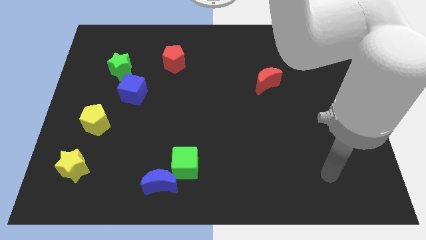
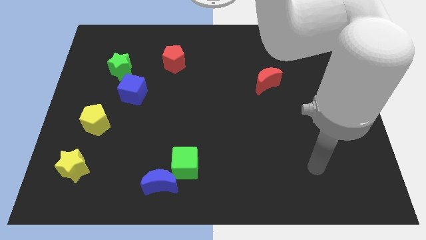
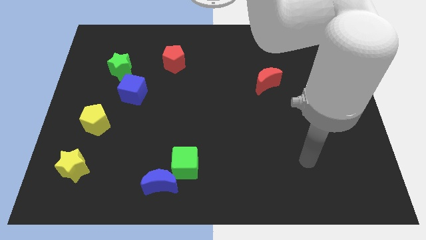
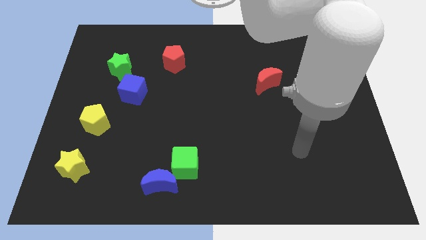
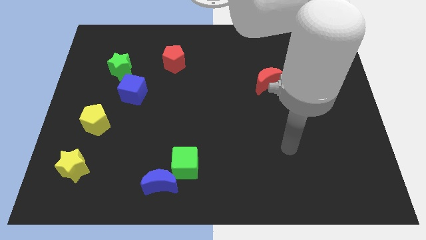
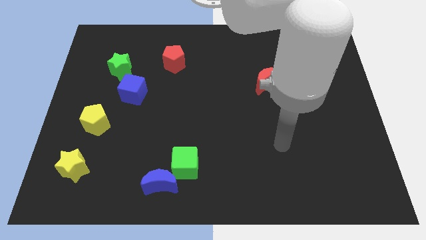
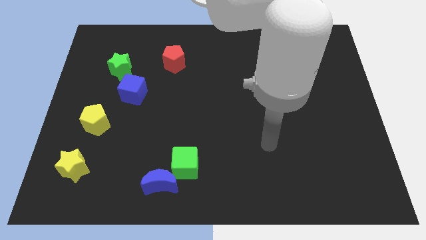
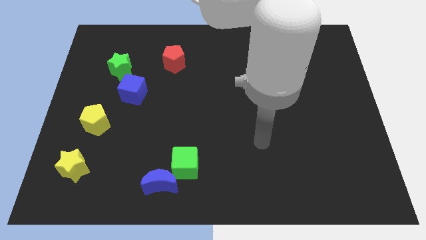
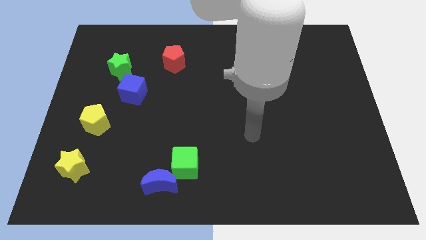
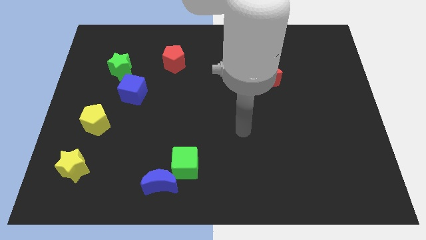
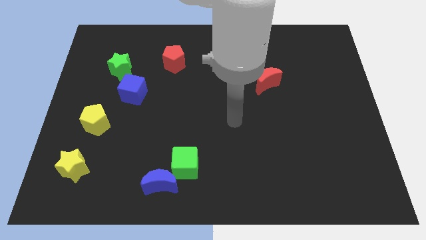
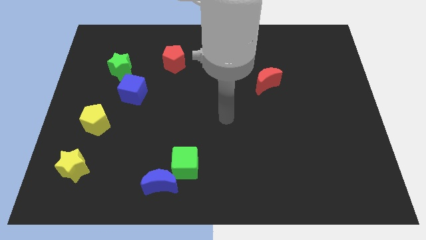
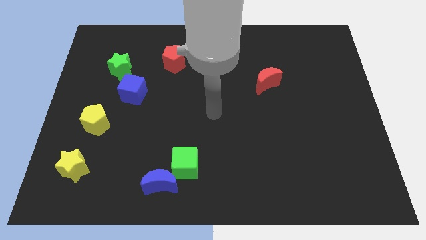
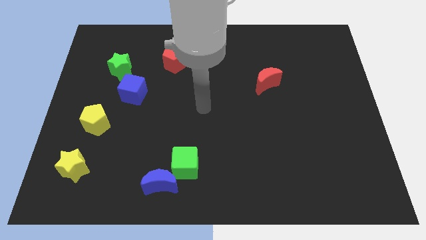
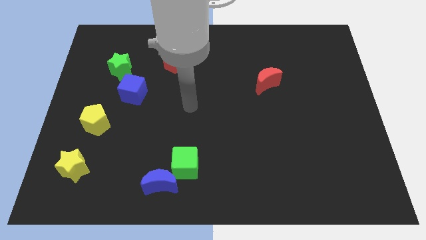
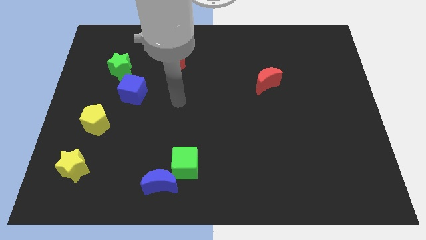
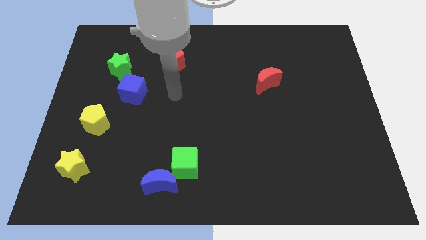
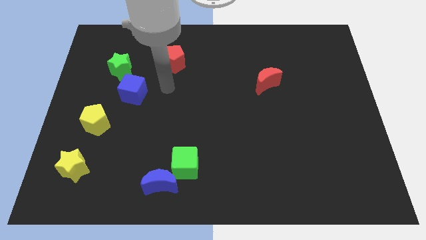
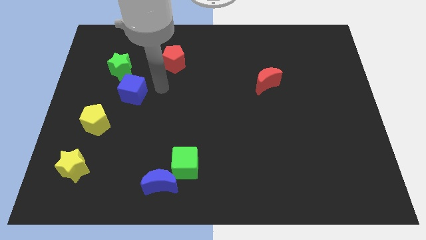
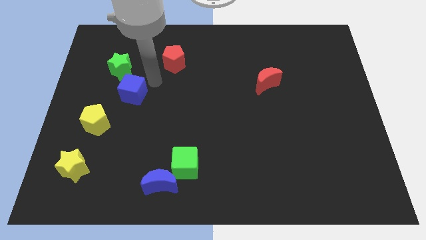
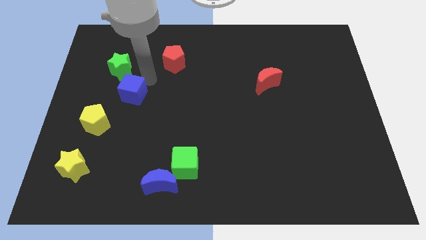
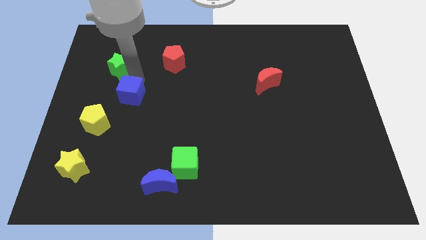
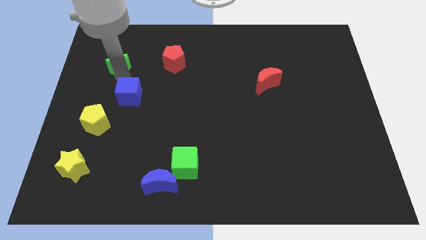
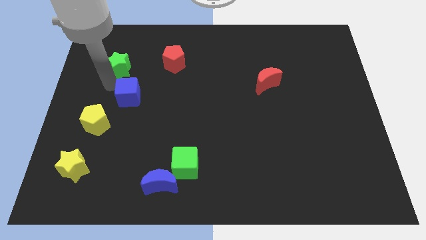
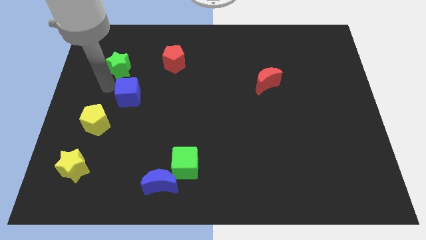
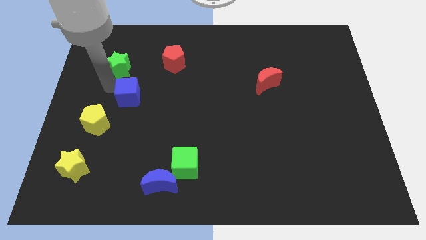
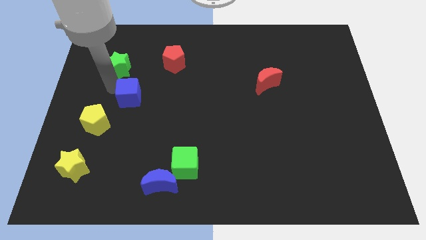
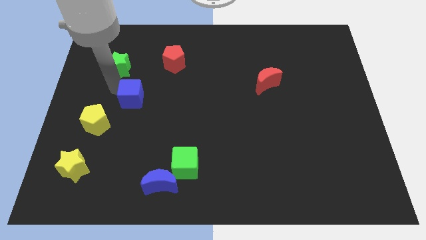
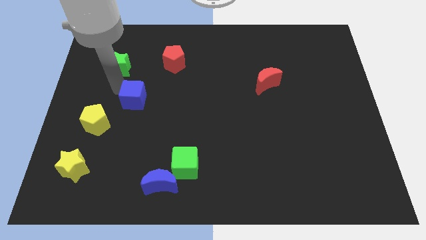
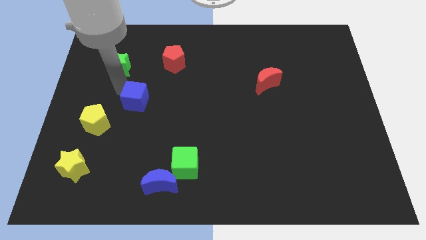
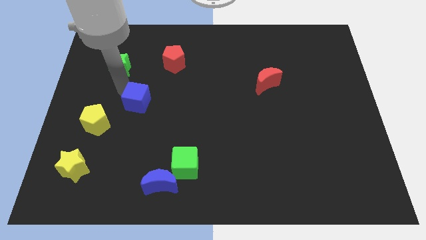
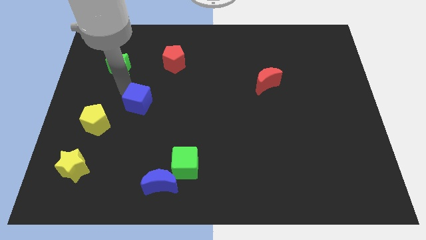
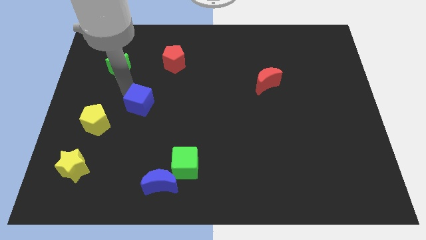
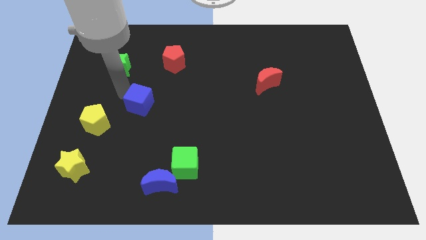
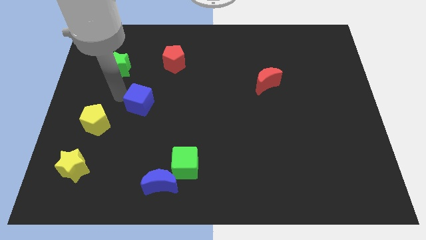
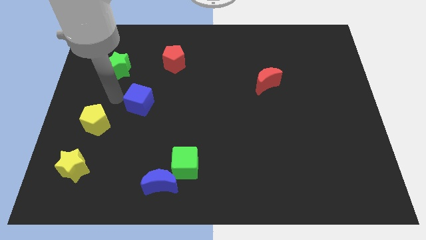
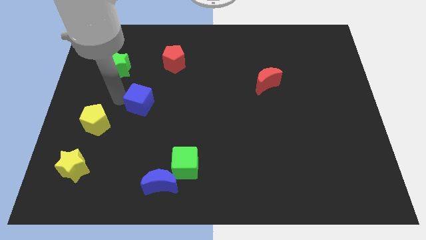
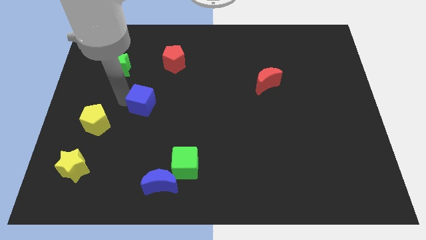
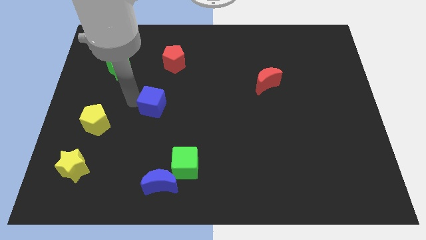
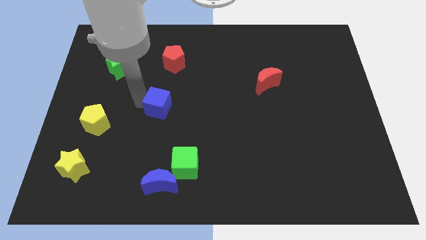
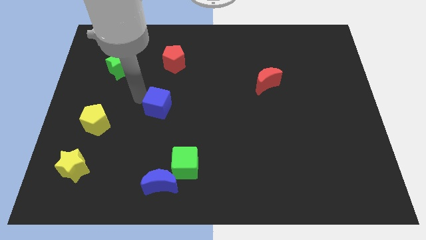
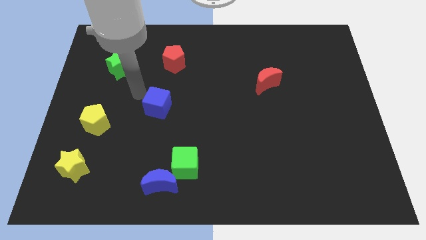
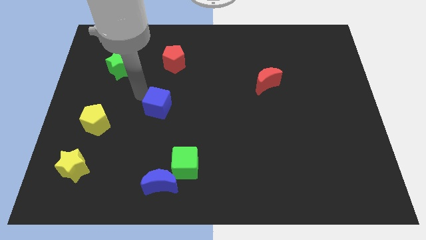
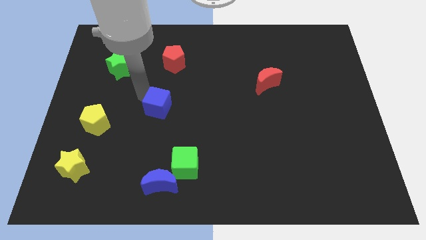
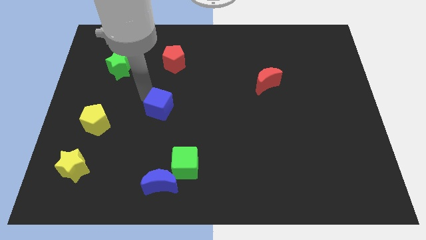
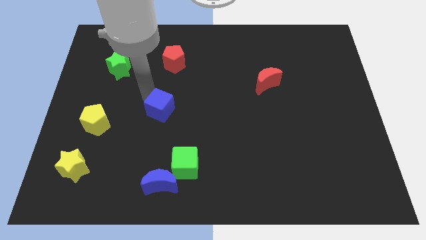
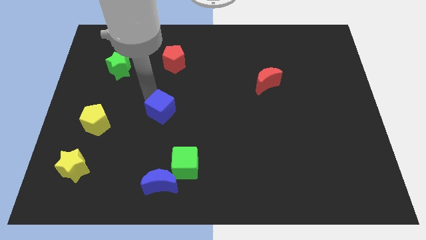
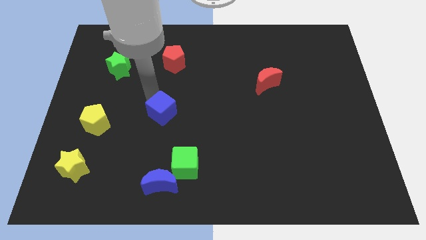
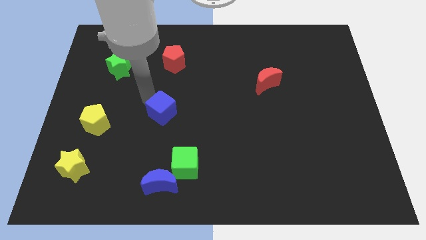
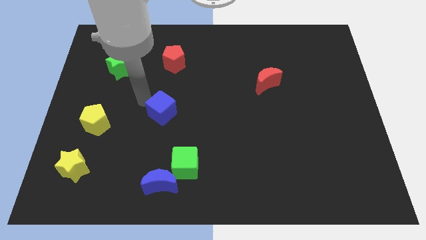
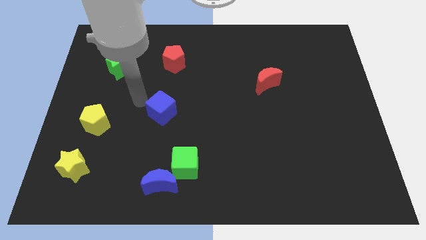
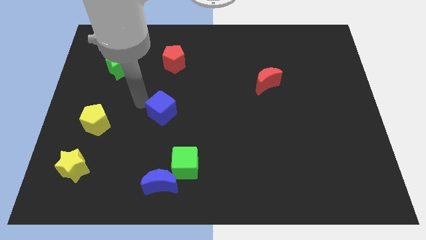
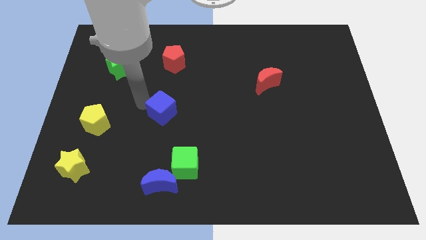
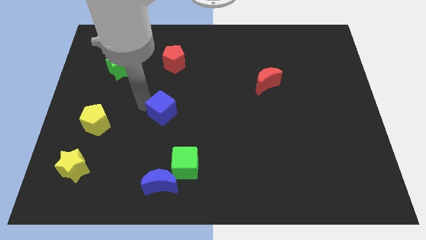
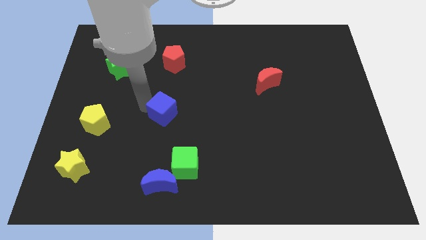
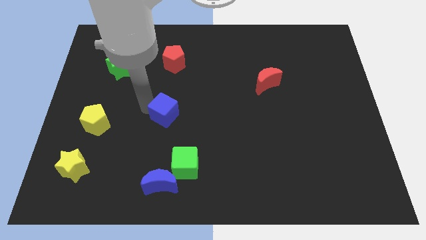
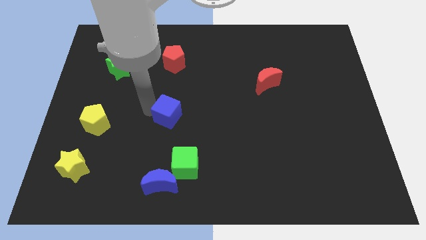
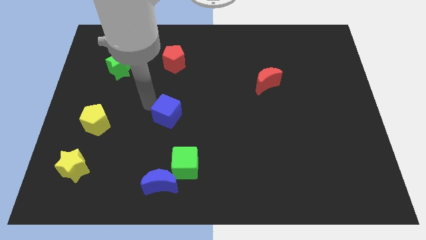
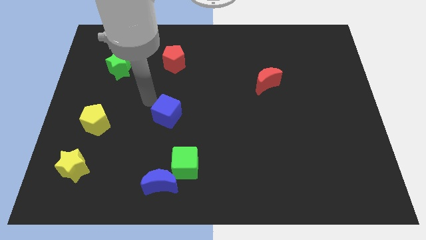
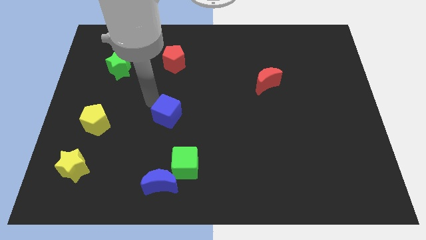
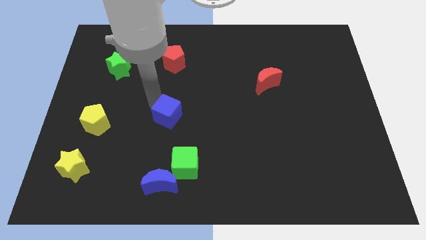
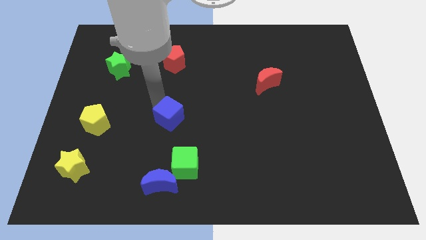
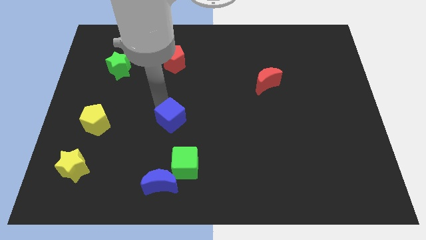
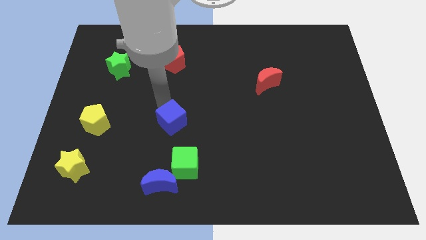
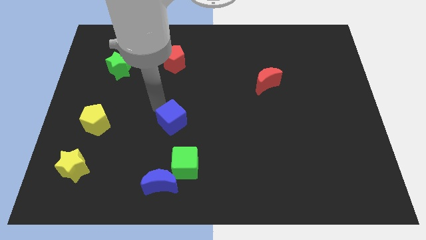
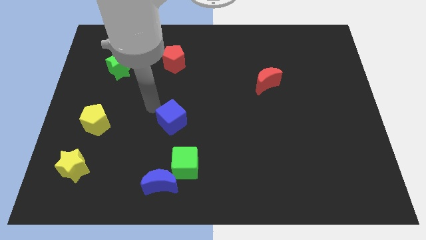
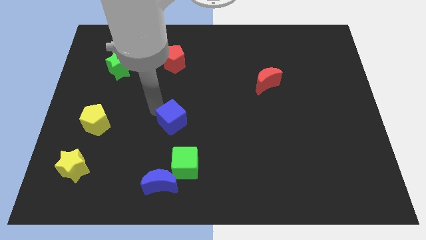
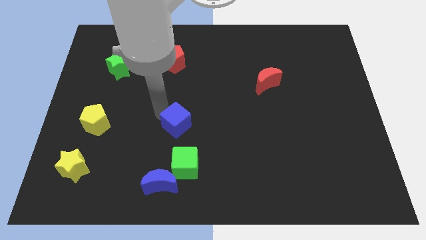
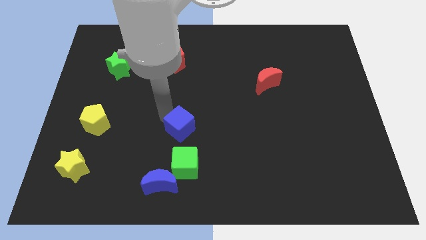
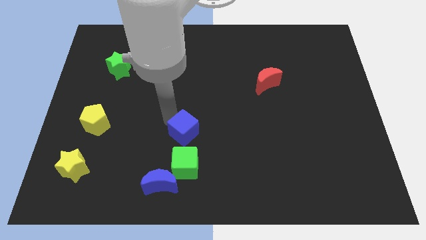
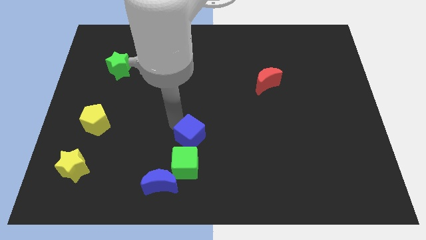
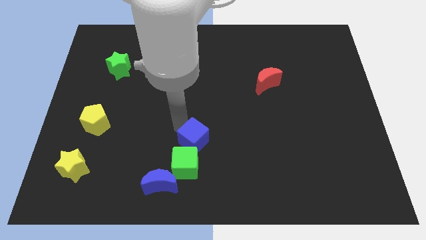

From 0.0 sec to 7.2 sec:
move the blue cube down and then to the right

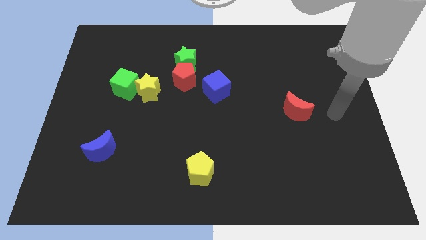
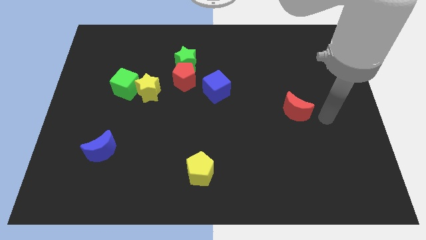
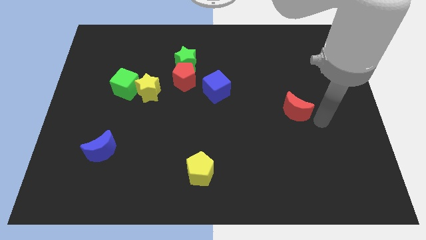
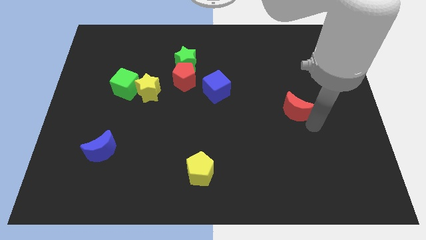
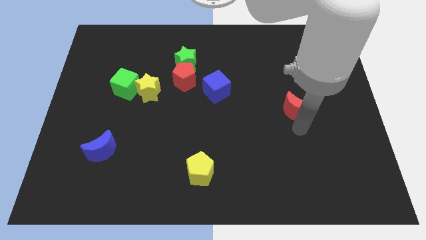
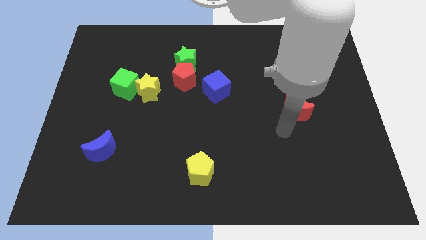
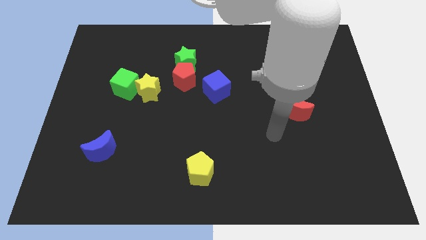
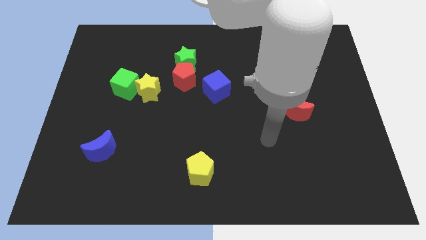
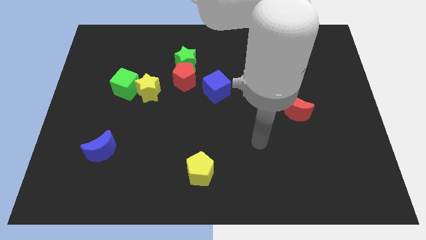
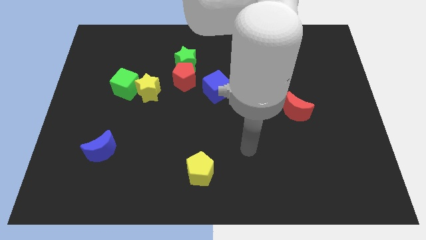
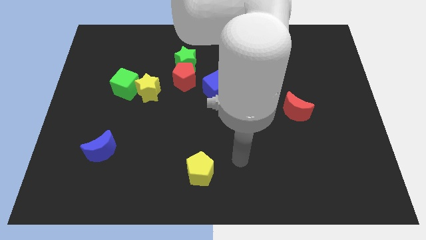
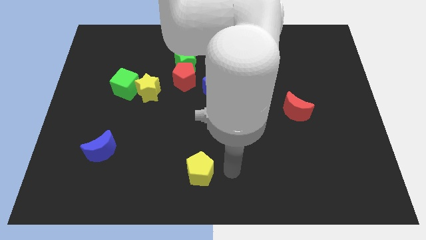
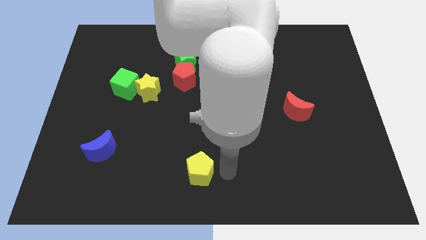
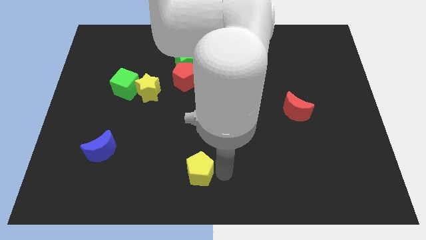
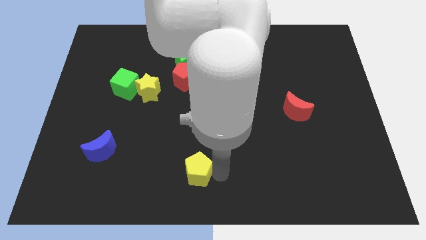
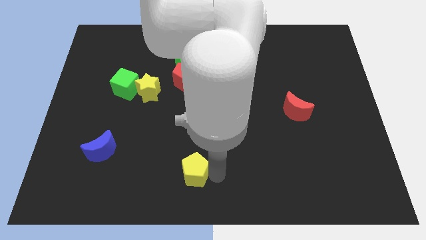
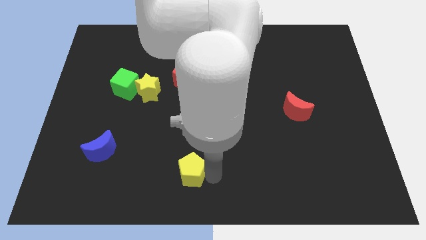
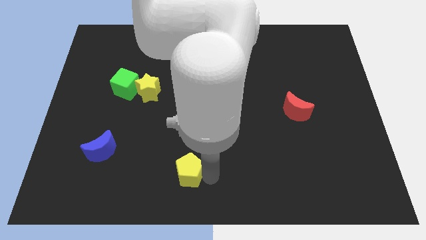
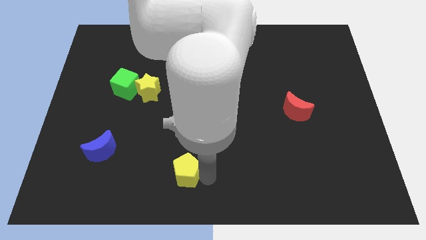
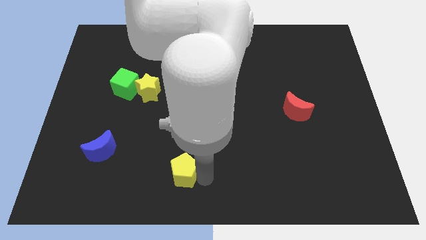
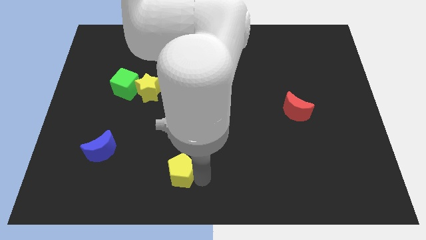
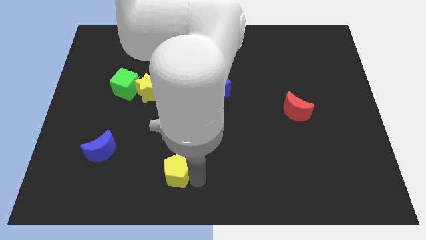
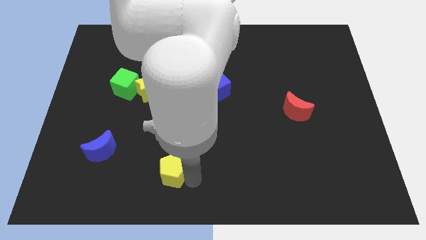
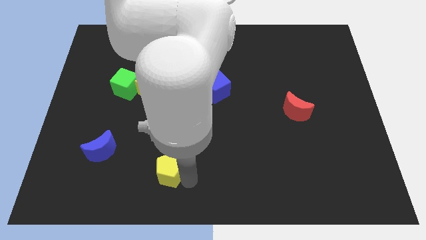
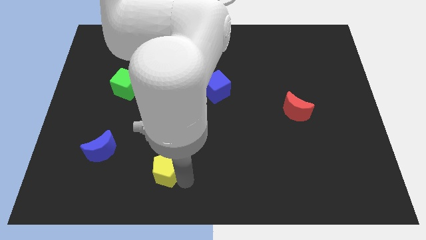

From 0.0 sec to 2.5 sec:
slide the yellow pentagon a little bit to the left
